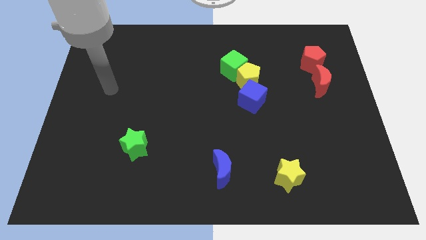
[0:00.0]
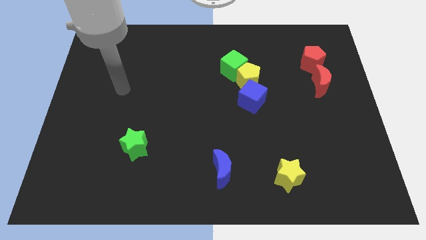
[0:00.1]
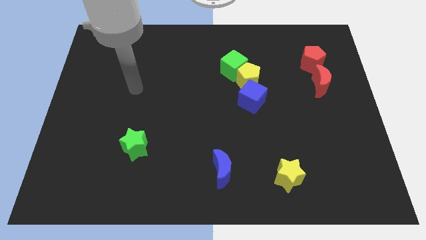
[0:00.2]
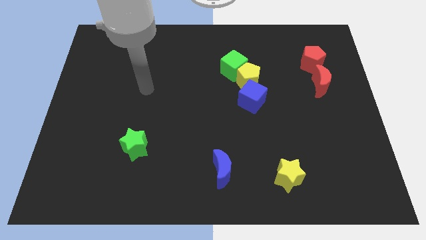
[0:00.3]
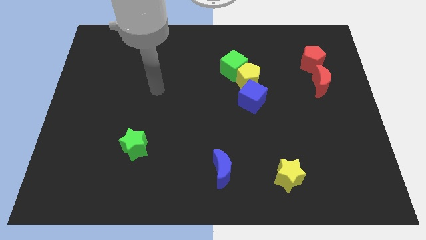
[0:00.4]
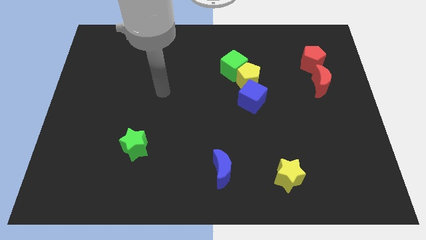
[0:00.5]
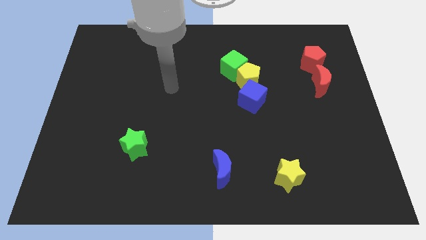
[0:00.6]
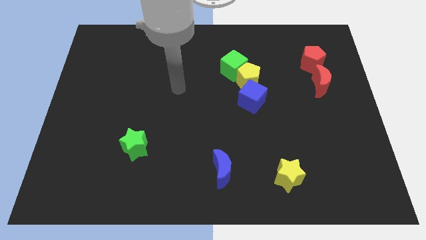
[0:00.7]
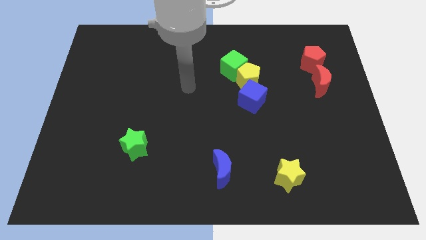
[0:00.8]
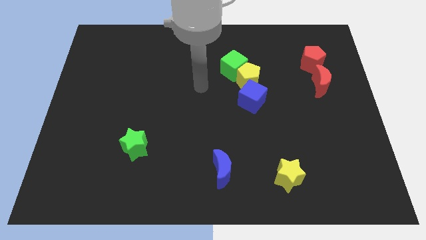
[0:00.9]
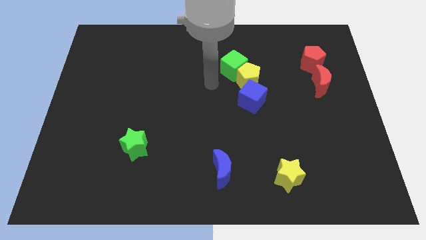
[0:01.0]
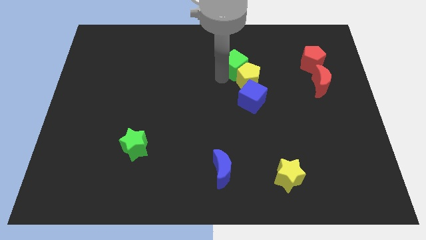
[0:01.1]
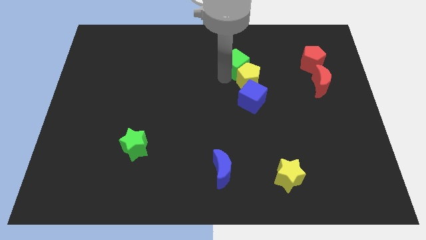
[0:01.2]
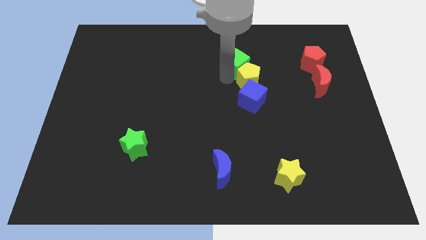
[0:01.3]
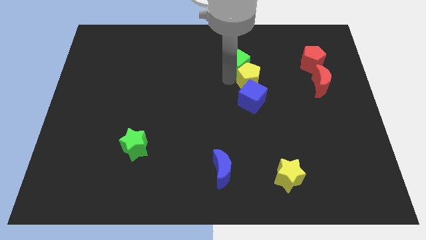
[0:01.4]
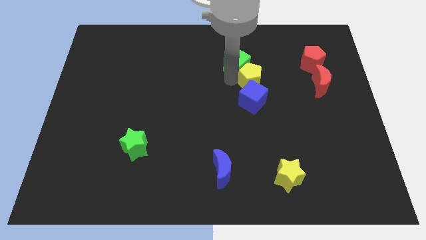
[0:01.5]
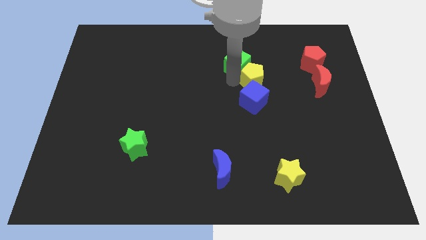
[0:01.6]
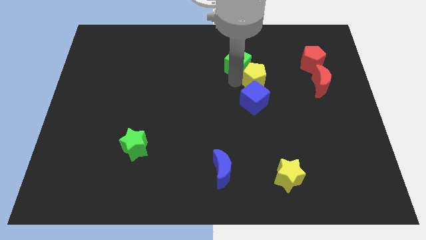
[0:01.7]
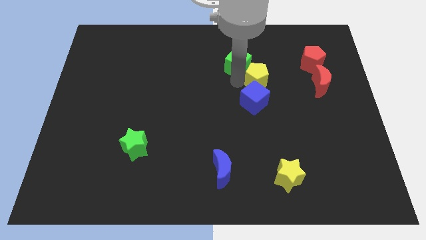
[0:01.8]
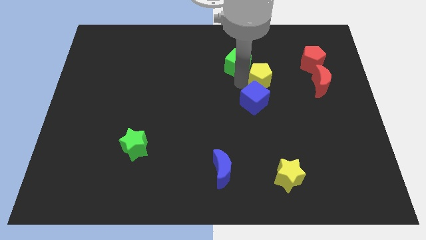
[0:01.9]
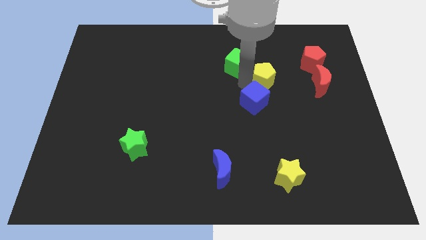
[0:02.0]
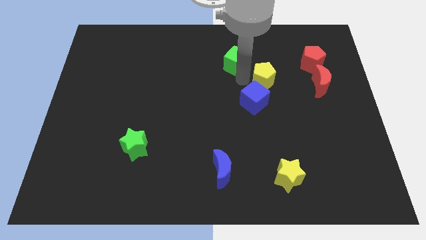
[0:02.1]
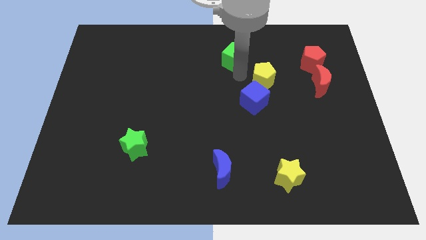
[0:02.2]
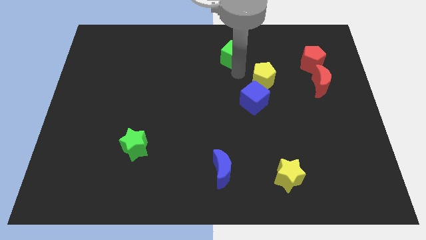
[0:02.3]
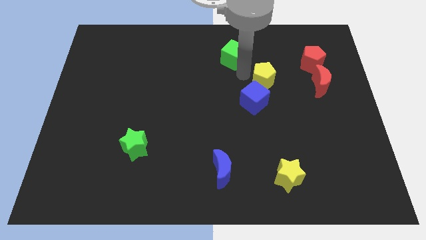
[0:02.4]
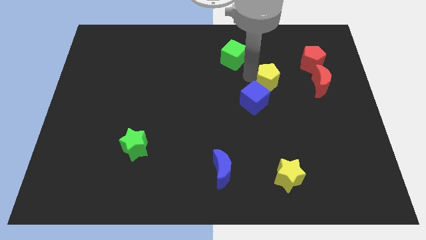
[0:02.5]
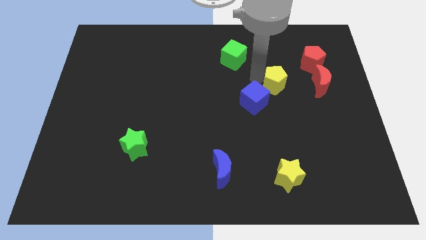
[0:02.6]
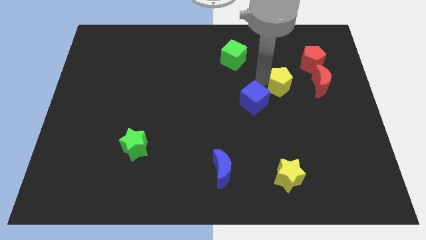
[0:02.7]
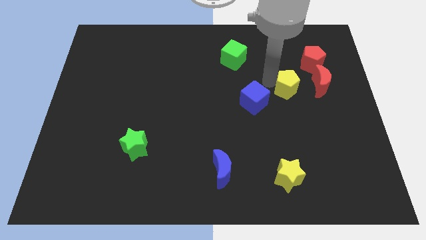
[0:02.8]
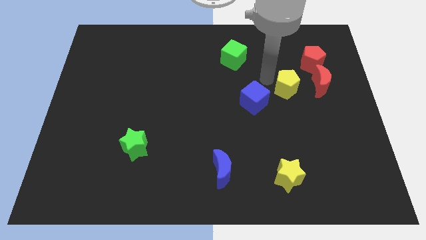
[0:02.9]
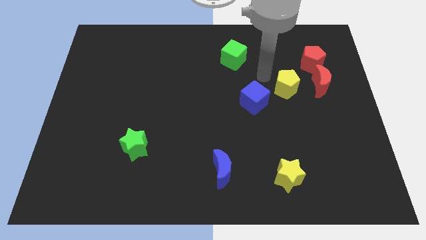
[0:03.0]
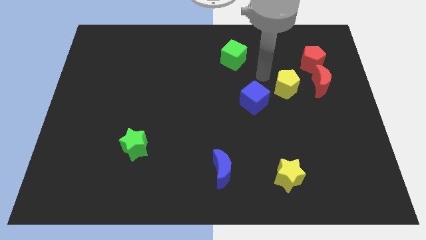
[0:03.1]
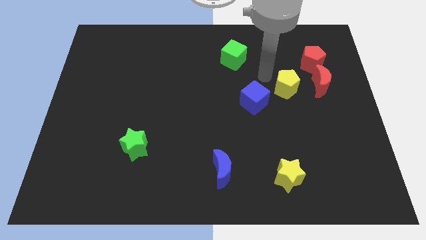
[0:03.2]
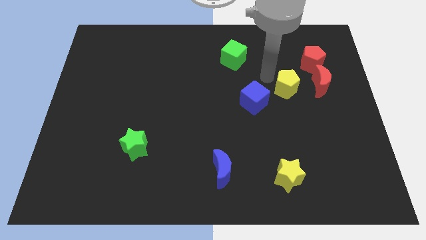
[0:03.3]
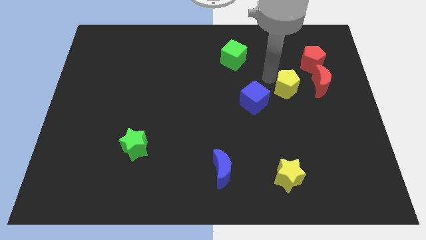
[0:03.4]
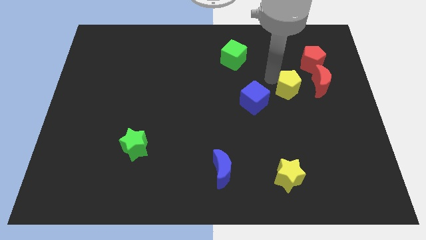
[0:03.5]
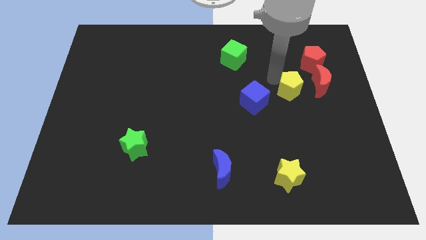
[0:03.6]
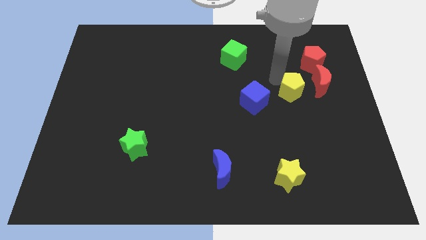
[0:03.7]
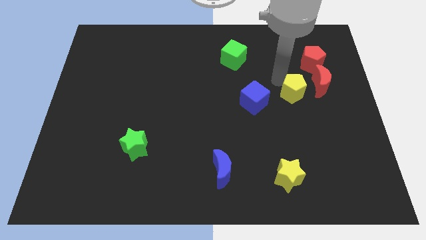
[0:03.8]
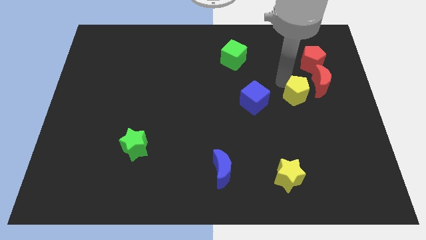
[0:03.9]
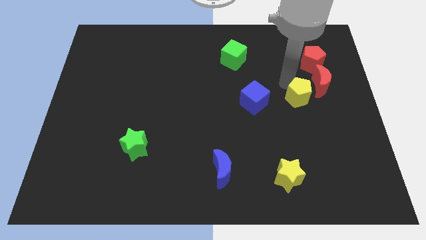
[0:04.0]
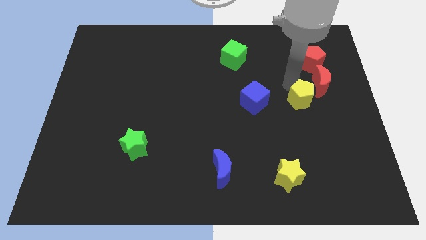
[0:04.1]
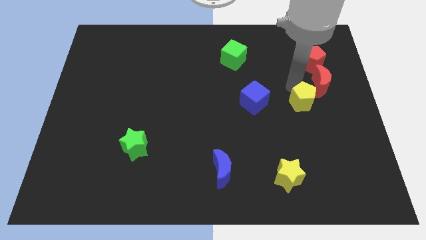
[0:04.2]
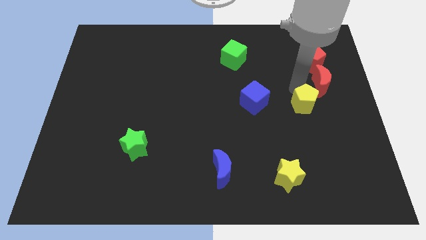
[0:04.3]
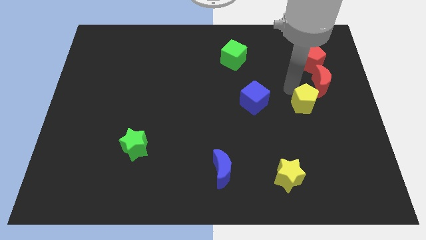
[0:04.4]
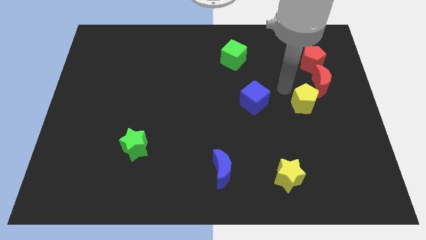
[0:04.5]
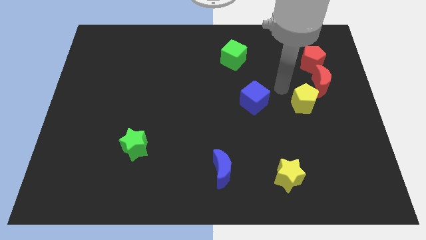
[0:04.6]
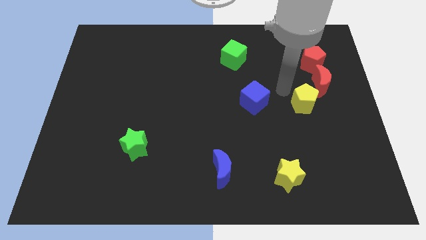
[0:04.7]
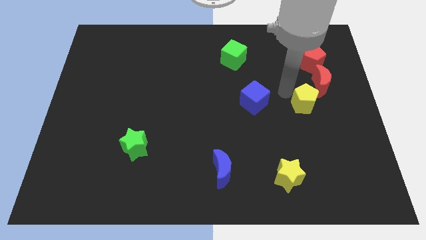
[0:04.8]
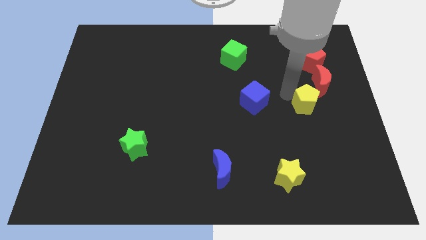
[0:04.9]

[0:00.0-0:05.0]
slide the yellow pentagon to the bottom of the red moon

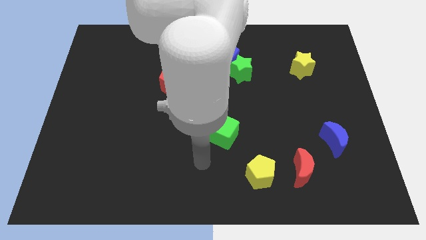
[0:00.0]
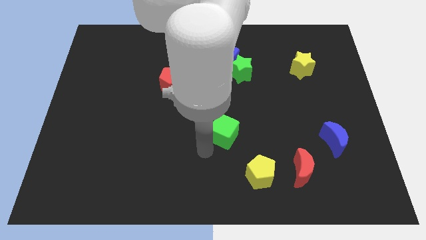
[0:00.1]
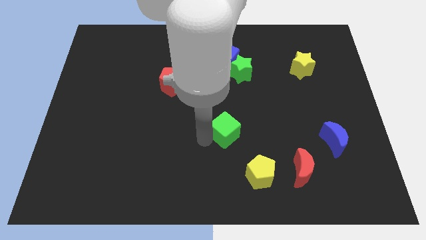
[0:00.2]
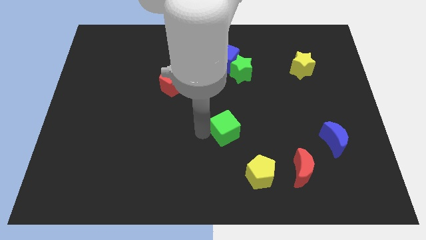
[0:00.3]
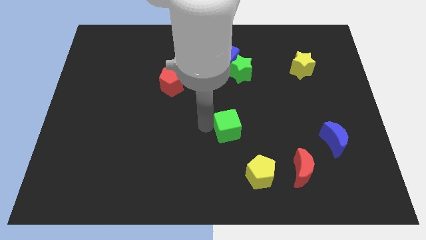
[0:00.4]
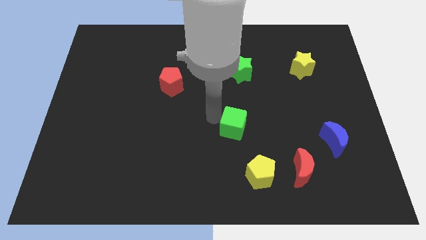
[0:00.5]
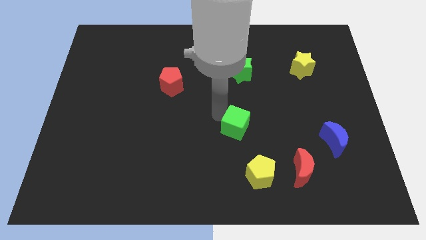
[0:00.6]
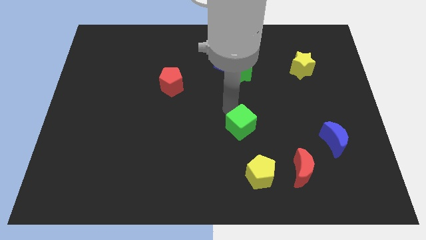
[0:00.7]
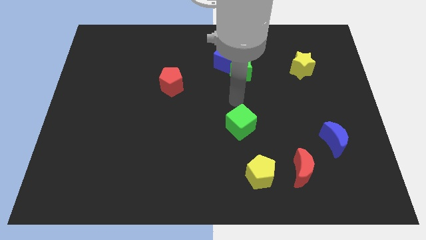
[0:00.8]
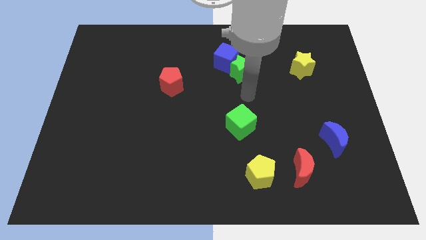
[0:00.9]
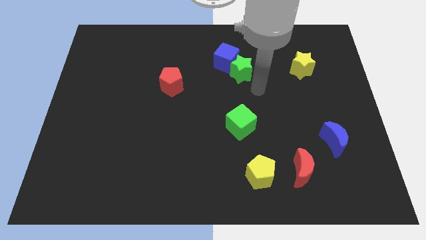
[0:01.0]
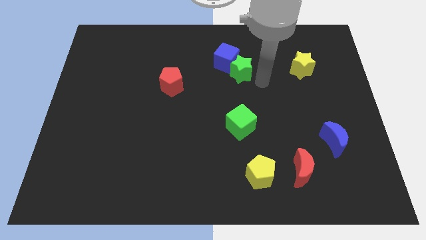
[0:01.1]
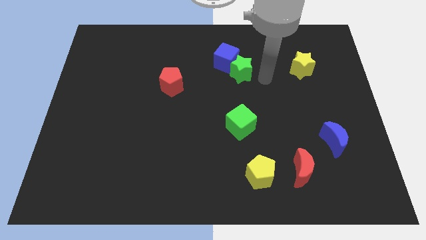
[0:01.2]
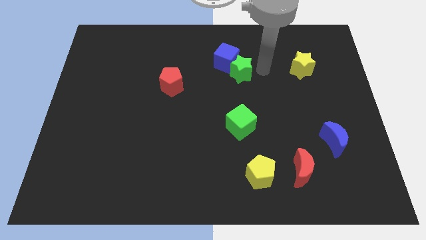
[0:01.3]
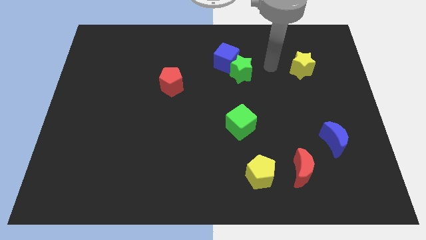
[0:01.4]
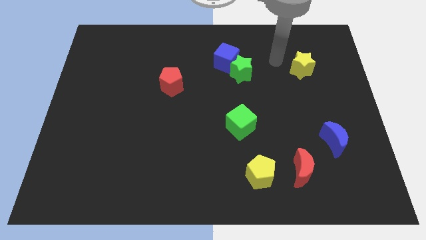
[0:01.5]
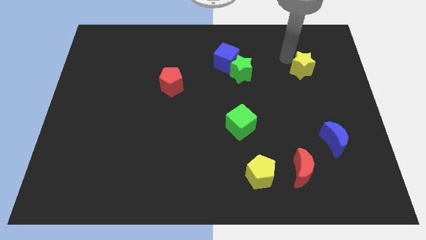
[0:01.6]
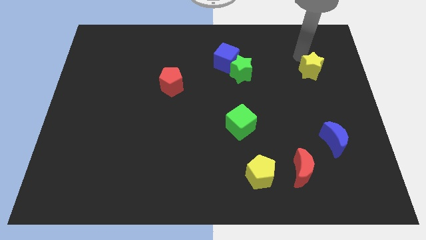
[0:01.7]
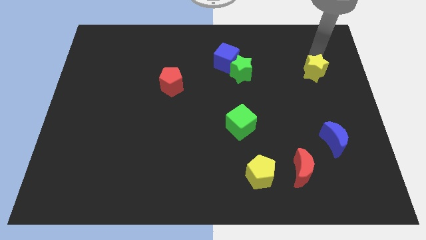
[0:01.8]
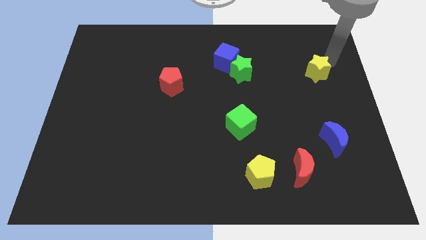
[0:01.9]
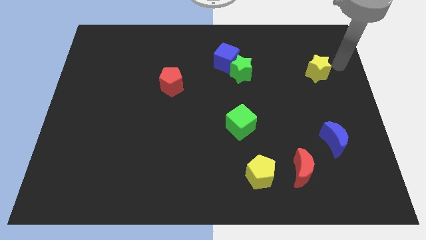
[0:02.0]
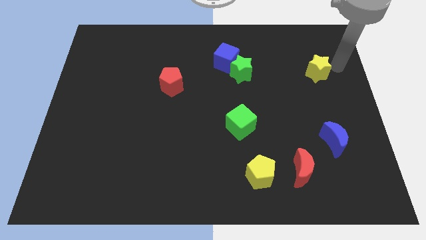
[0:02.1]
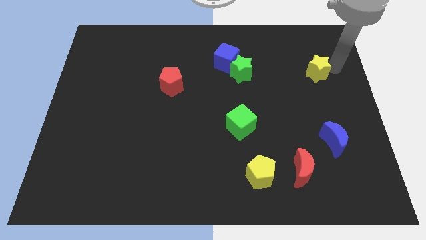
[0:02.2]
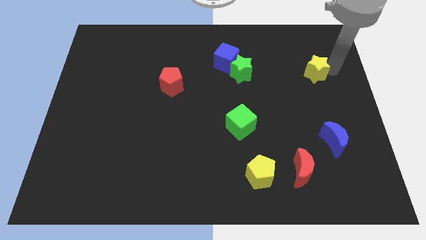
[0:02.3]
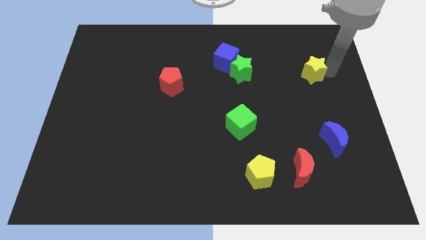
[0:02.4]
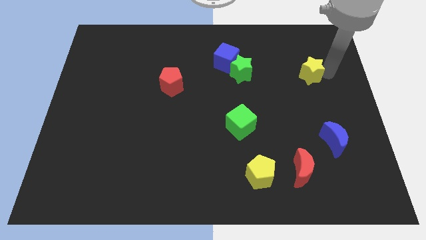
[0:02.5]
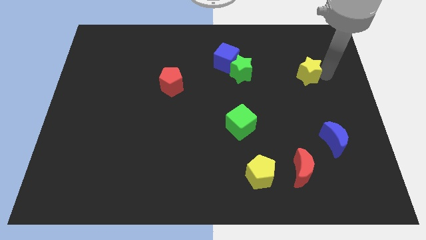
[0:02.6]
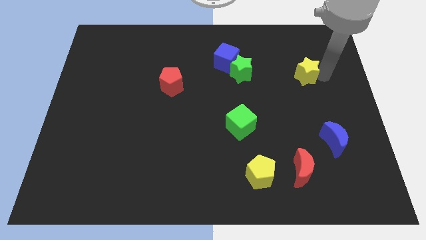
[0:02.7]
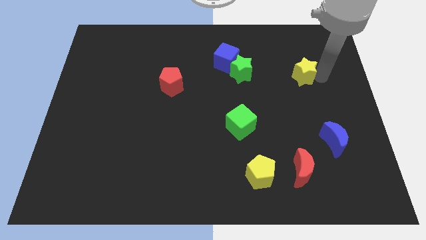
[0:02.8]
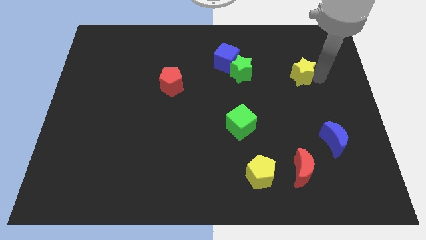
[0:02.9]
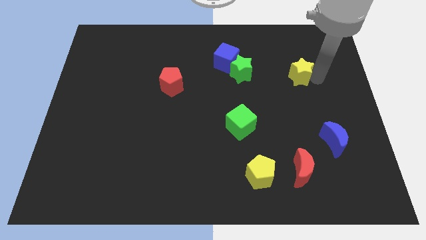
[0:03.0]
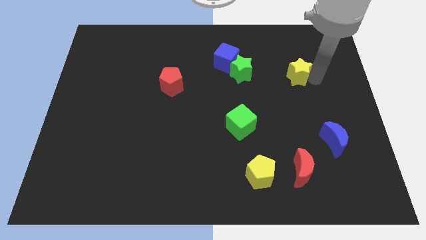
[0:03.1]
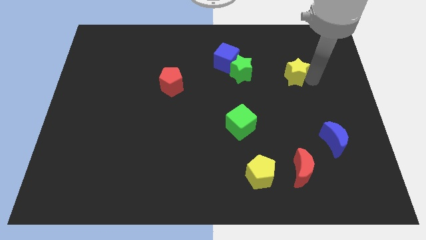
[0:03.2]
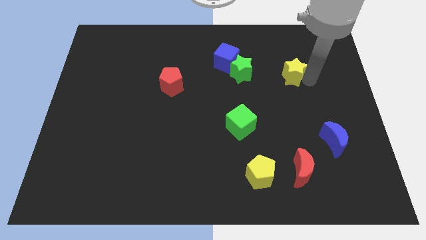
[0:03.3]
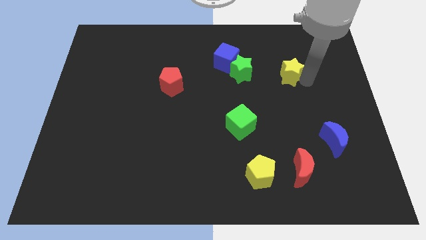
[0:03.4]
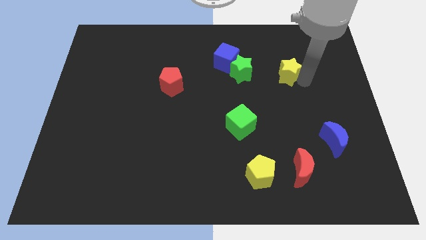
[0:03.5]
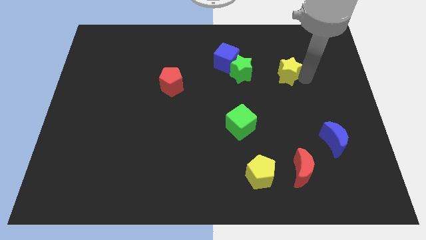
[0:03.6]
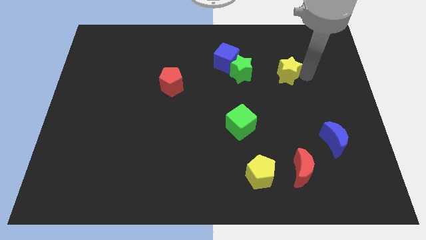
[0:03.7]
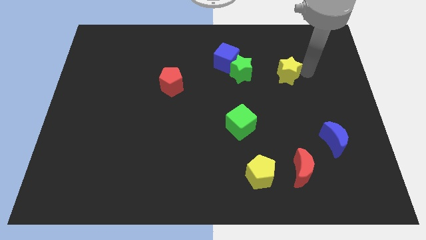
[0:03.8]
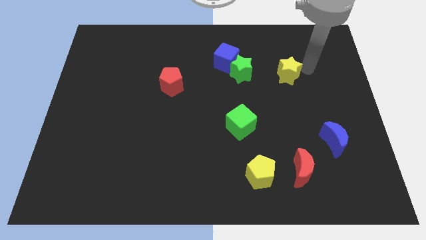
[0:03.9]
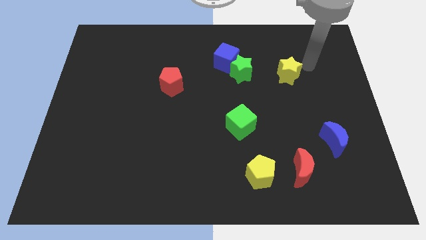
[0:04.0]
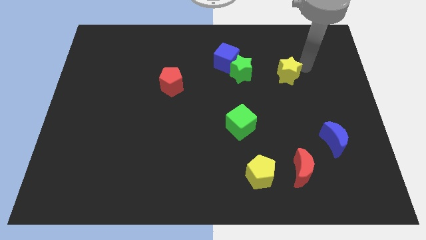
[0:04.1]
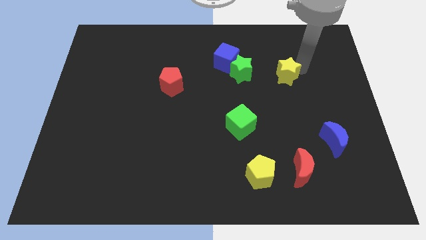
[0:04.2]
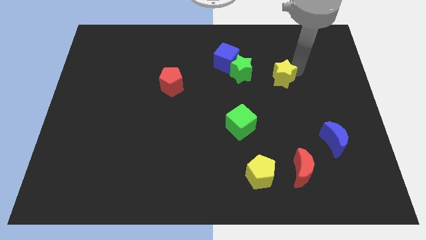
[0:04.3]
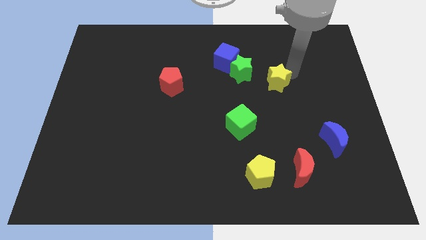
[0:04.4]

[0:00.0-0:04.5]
push the yellow star to the bottom right side of the green star
